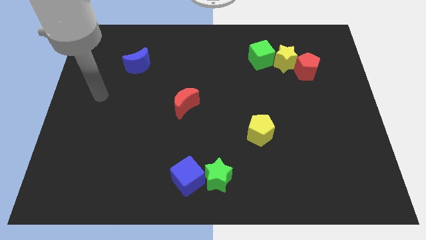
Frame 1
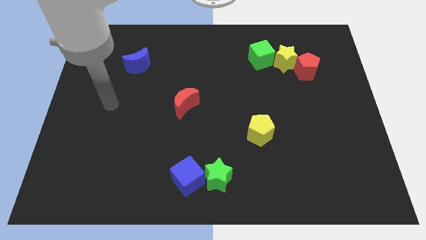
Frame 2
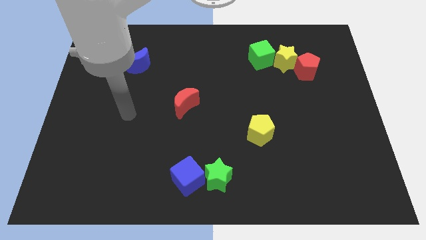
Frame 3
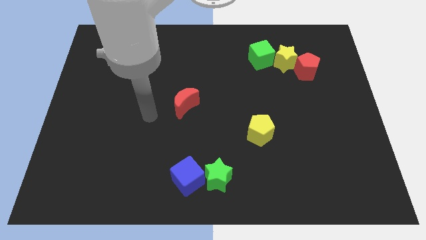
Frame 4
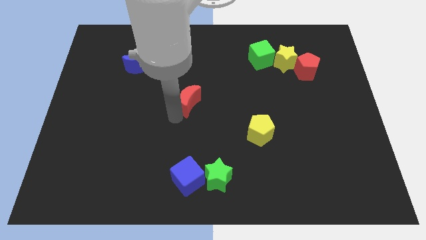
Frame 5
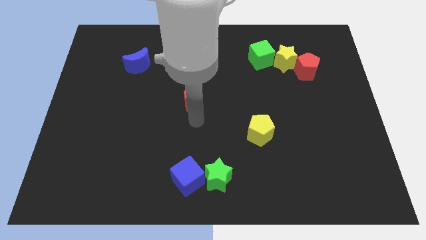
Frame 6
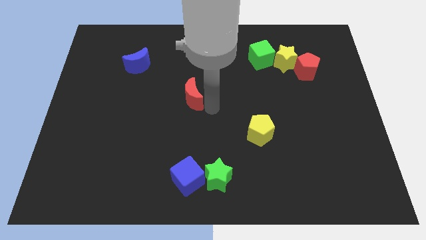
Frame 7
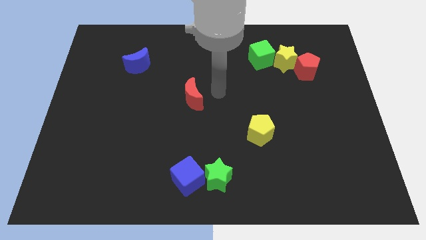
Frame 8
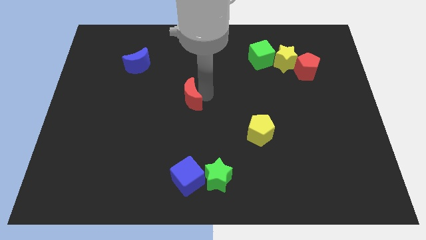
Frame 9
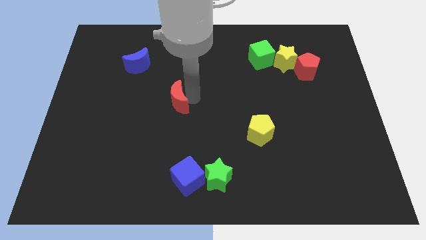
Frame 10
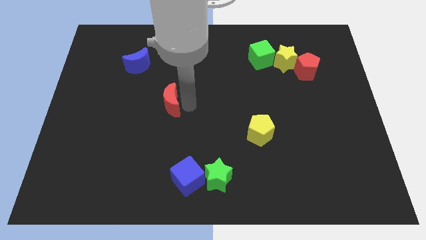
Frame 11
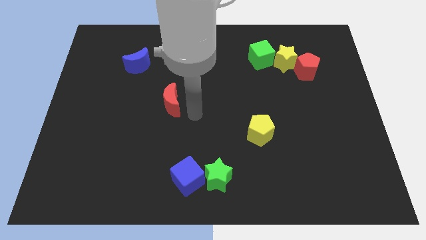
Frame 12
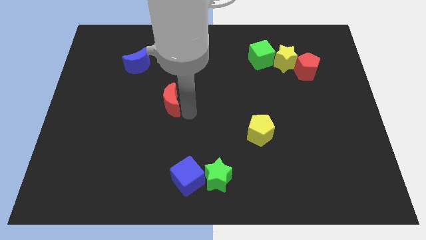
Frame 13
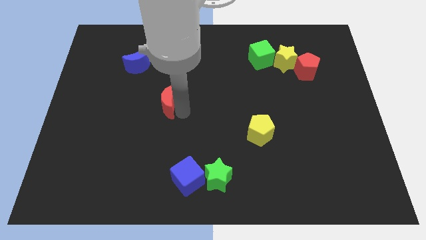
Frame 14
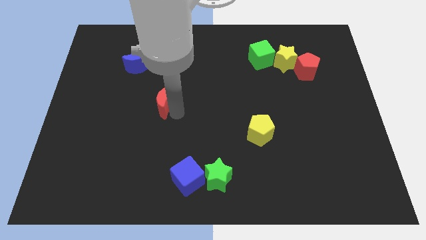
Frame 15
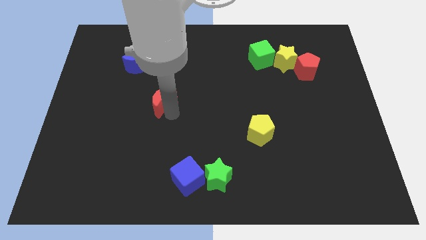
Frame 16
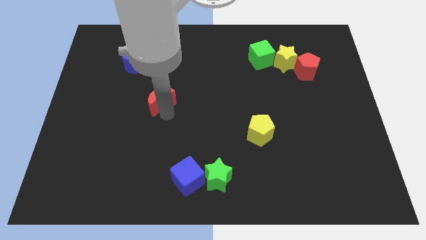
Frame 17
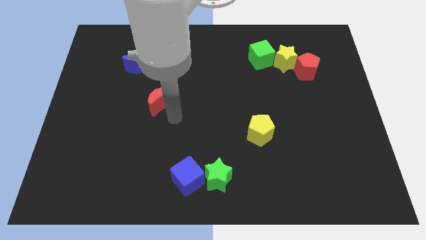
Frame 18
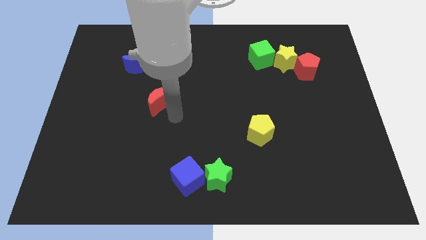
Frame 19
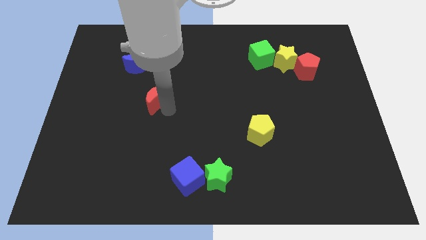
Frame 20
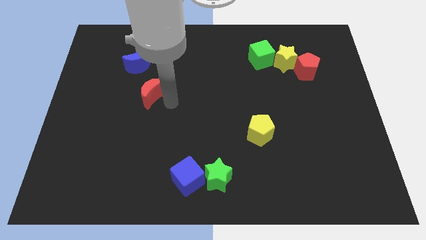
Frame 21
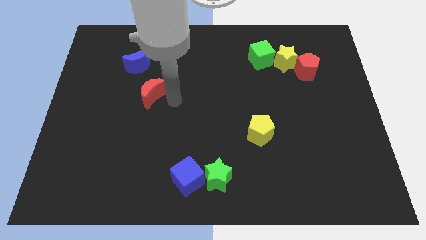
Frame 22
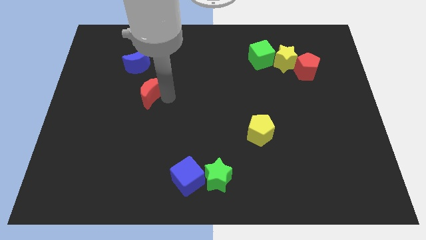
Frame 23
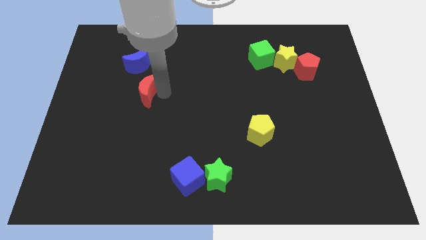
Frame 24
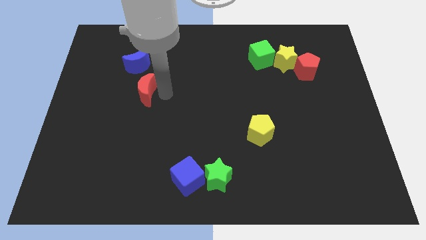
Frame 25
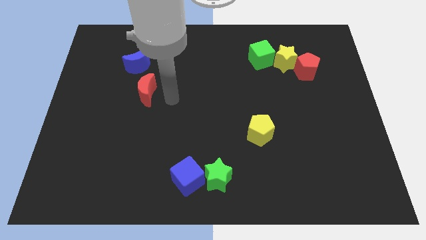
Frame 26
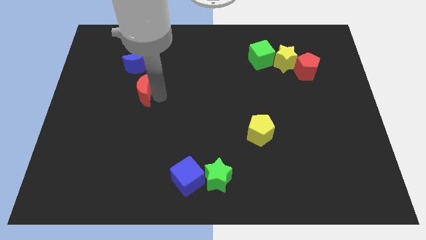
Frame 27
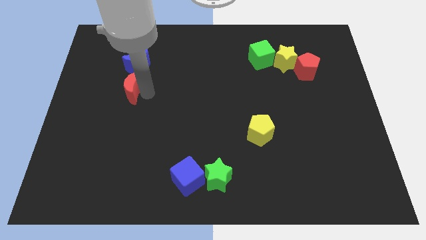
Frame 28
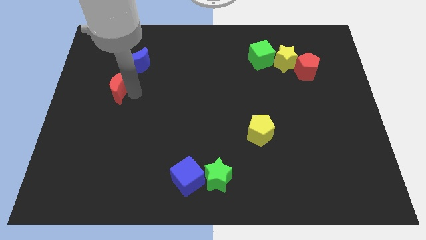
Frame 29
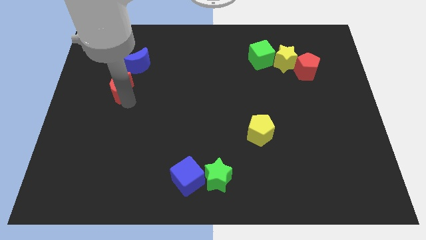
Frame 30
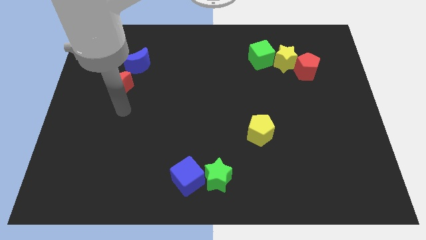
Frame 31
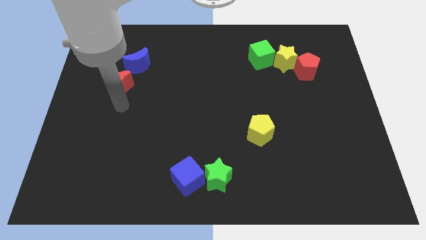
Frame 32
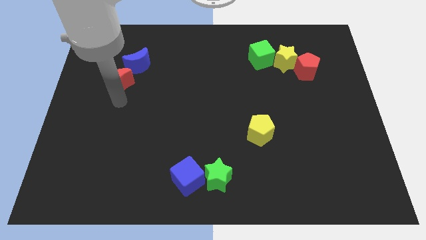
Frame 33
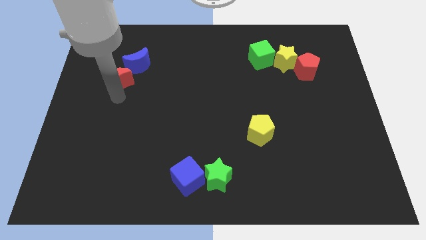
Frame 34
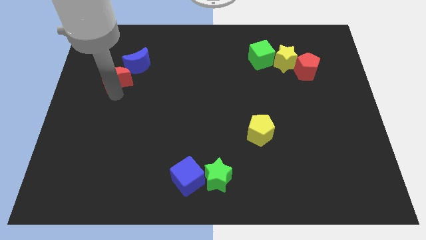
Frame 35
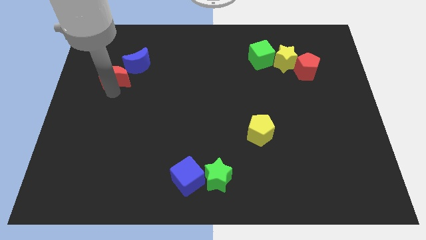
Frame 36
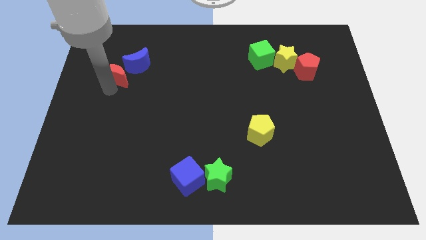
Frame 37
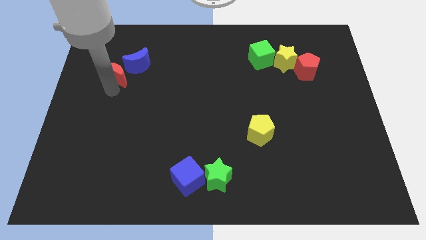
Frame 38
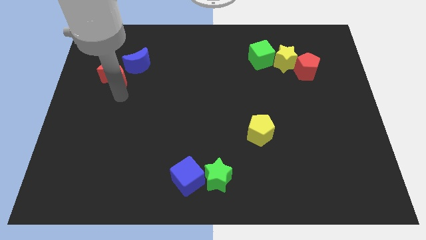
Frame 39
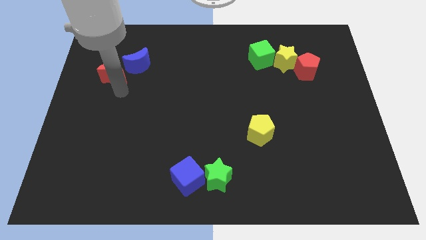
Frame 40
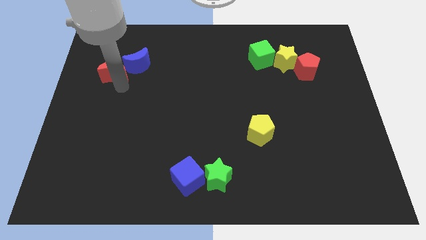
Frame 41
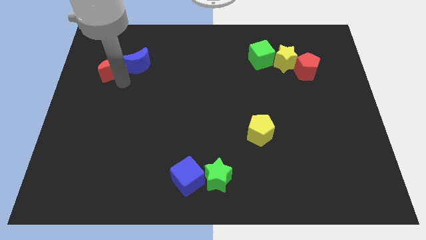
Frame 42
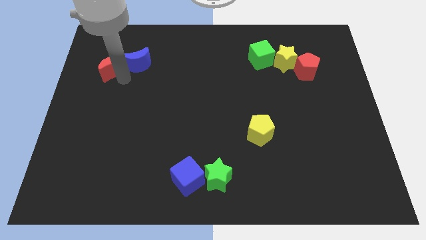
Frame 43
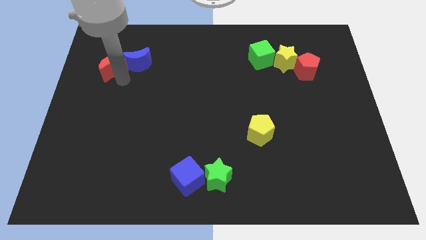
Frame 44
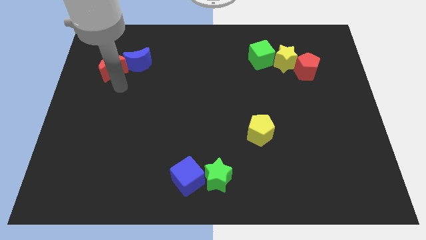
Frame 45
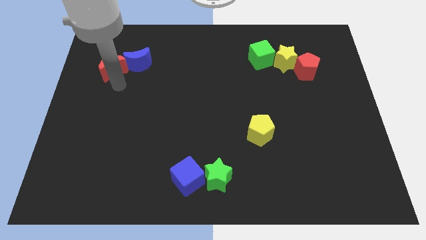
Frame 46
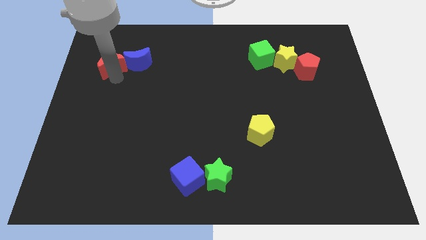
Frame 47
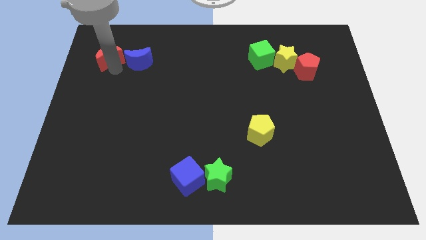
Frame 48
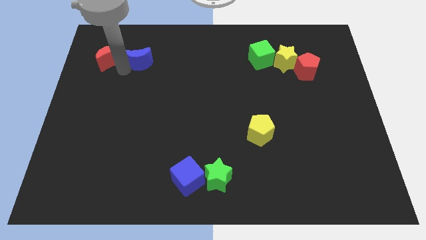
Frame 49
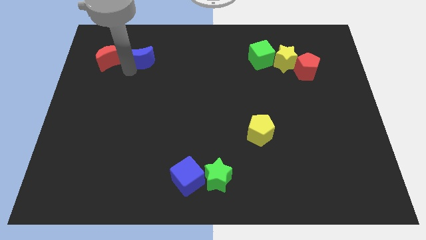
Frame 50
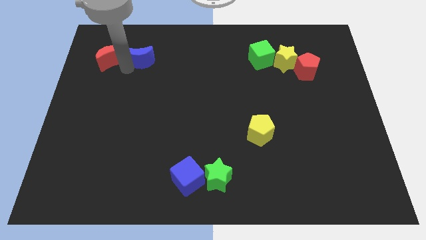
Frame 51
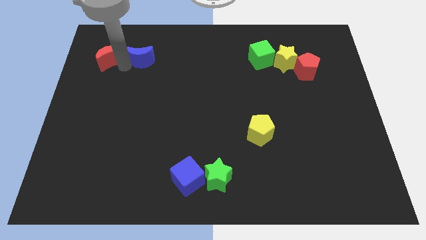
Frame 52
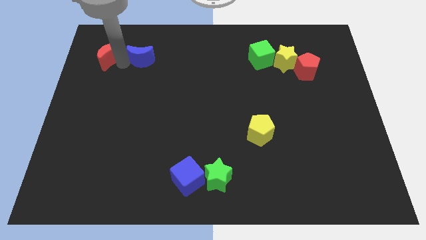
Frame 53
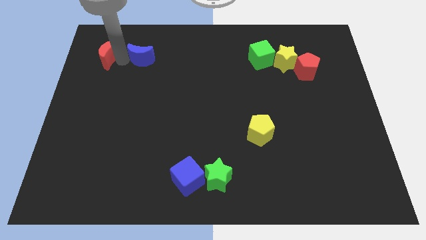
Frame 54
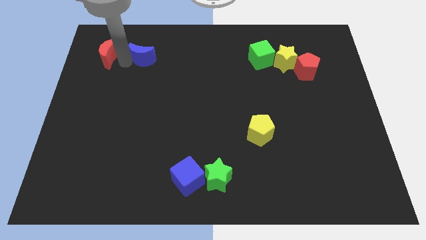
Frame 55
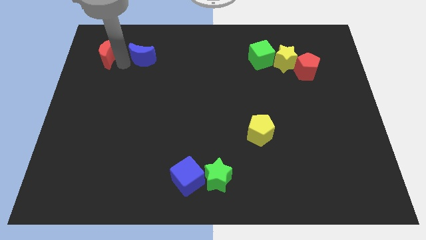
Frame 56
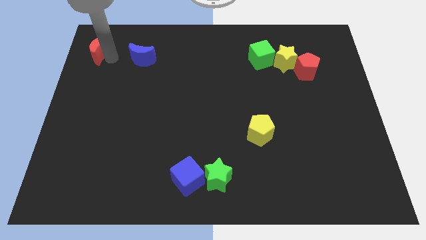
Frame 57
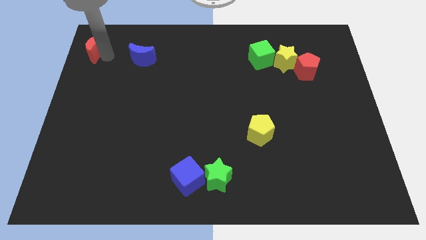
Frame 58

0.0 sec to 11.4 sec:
push the red moon to the top left of the board

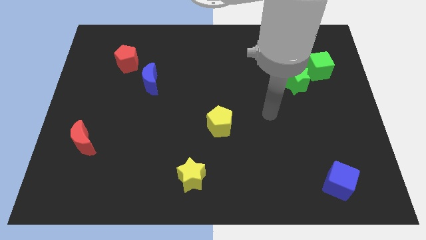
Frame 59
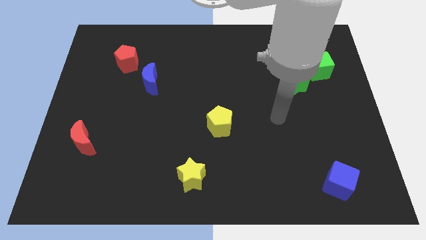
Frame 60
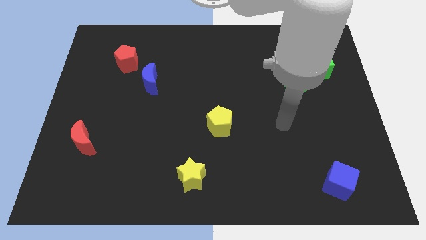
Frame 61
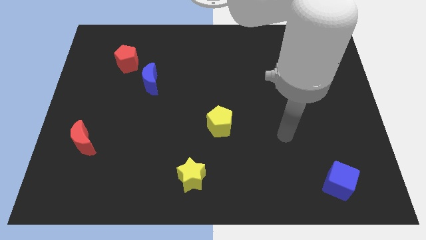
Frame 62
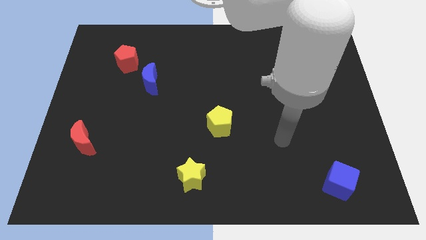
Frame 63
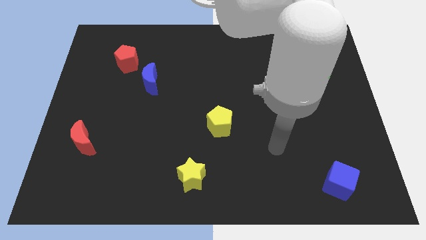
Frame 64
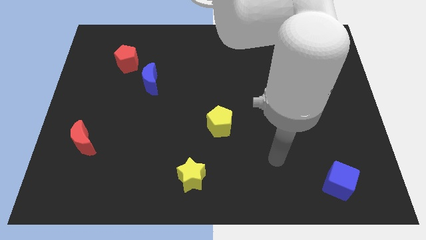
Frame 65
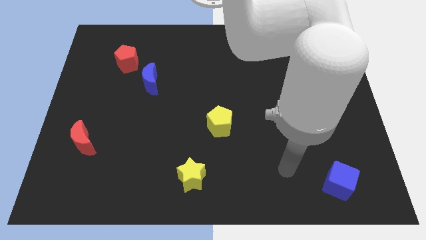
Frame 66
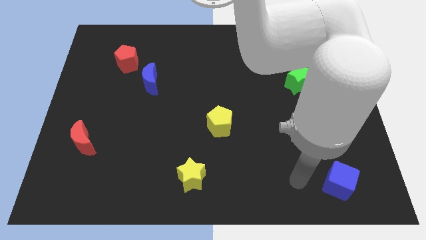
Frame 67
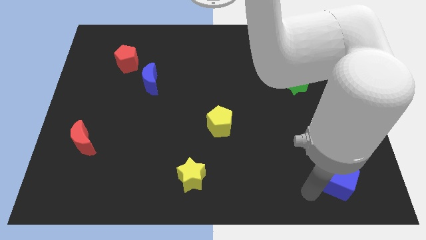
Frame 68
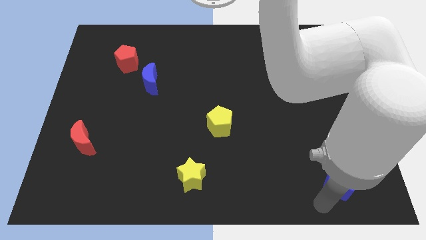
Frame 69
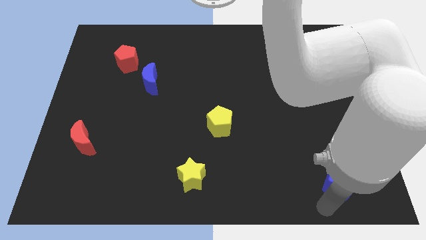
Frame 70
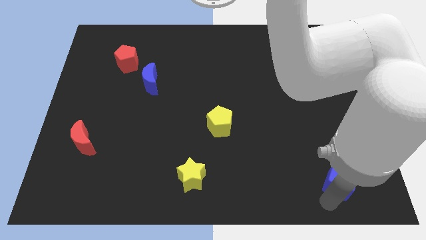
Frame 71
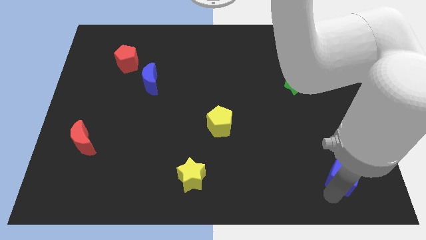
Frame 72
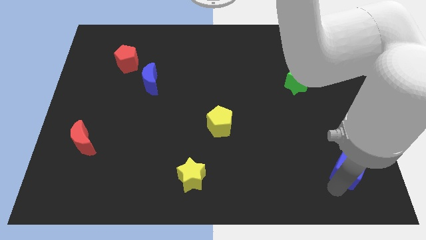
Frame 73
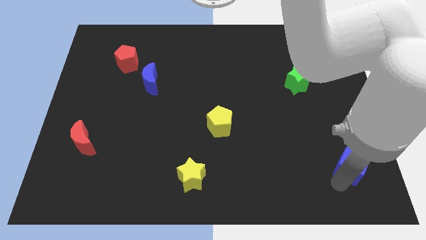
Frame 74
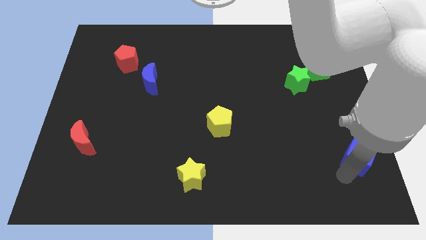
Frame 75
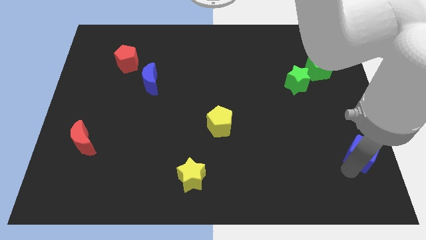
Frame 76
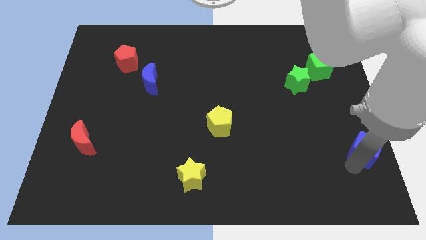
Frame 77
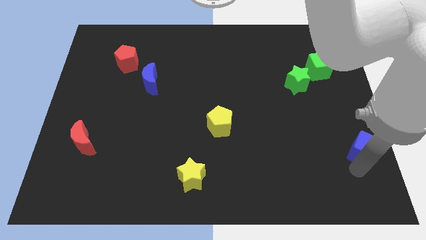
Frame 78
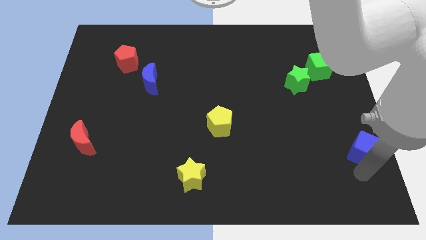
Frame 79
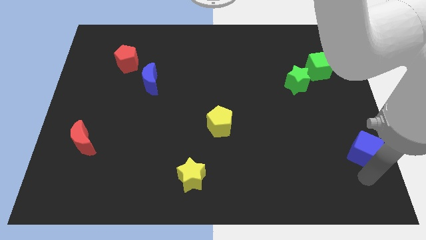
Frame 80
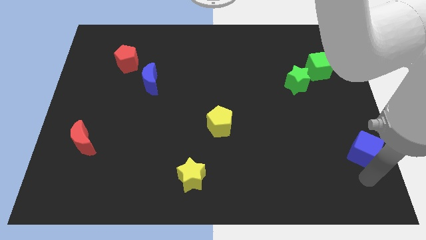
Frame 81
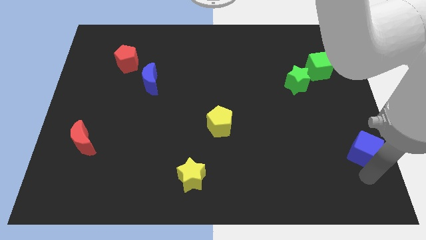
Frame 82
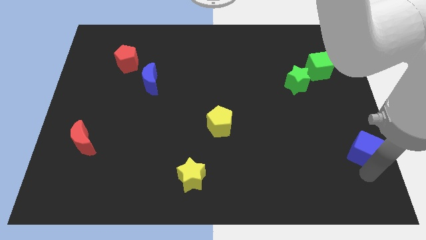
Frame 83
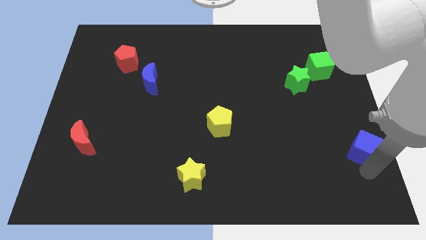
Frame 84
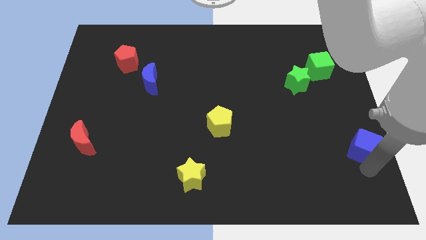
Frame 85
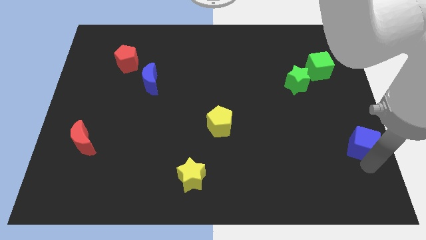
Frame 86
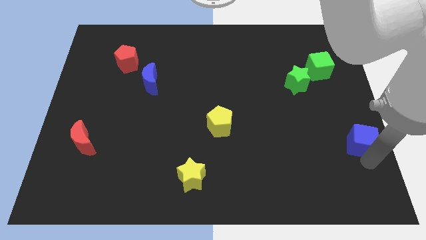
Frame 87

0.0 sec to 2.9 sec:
put the blue cube to the right side
